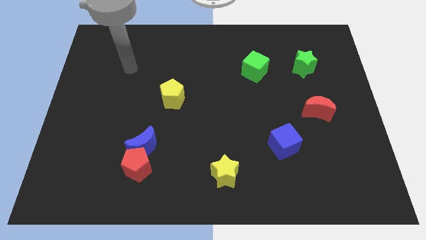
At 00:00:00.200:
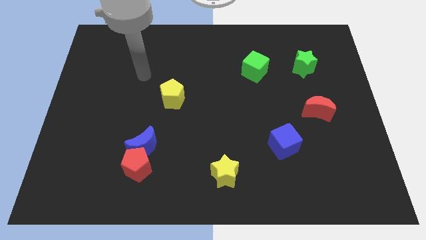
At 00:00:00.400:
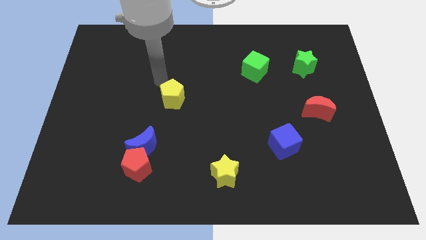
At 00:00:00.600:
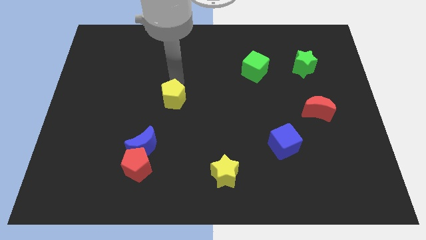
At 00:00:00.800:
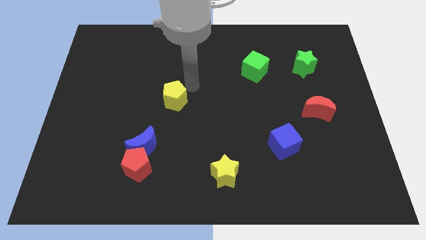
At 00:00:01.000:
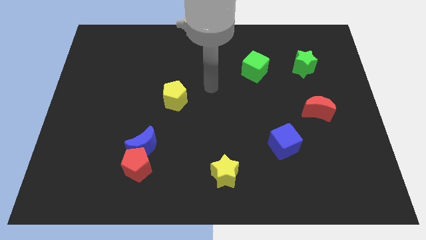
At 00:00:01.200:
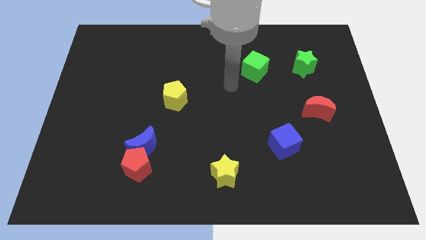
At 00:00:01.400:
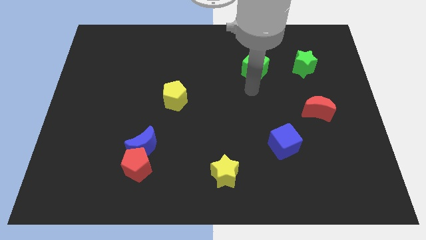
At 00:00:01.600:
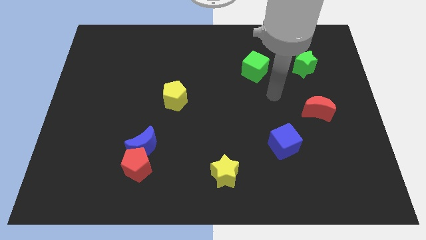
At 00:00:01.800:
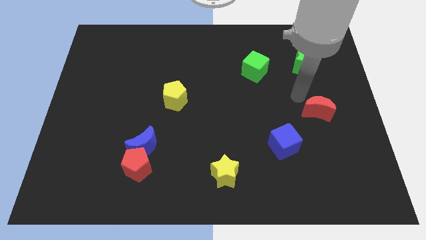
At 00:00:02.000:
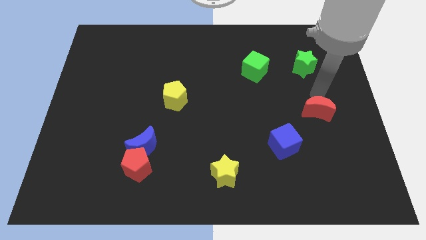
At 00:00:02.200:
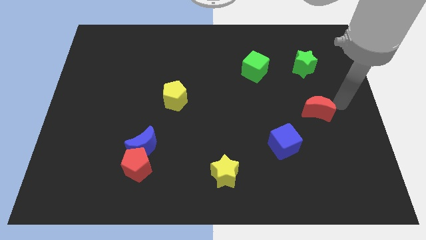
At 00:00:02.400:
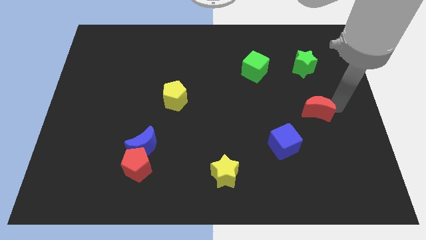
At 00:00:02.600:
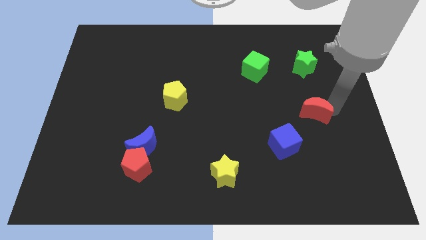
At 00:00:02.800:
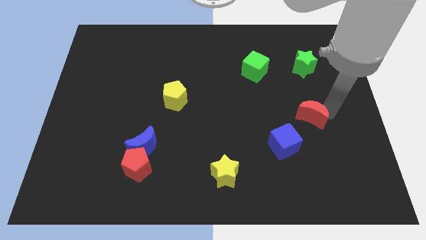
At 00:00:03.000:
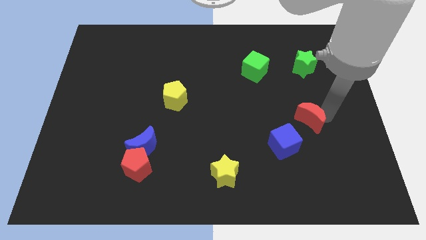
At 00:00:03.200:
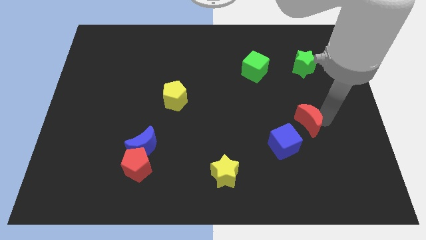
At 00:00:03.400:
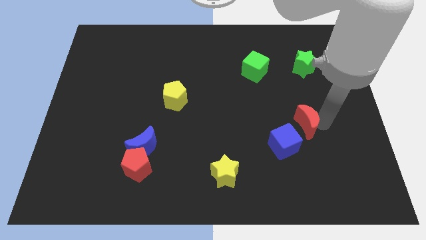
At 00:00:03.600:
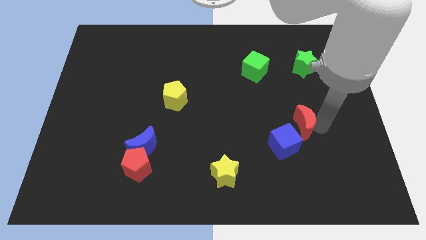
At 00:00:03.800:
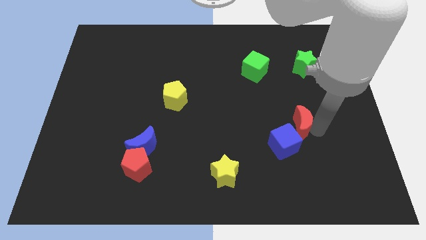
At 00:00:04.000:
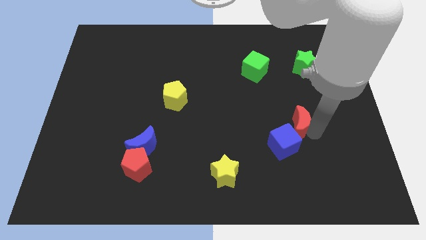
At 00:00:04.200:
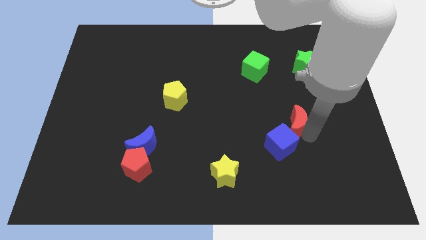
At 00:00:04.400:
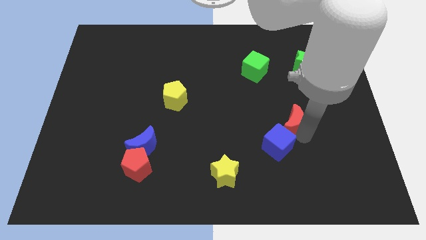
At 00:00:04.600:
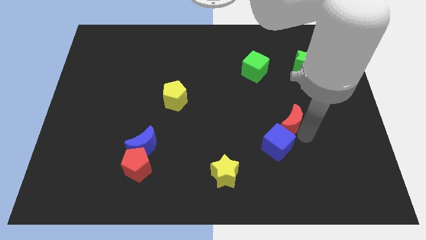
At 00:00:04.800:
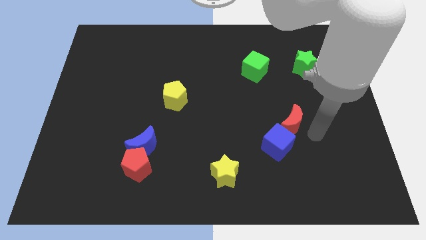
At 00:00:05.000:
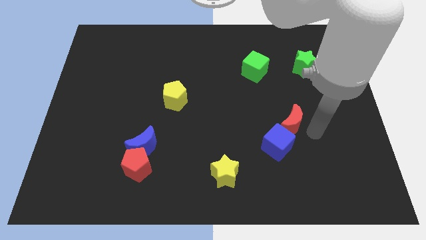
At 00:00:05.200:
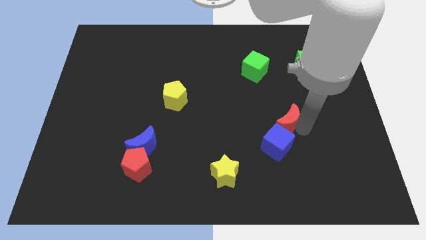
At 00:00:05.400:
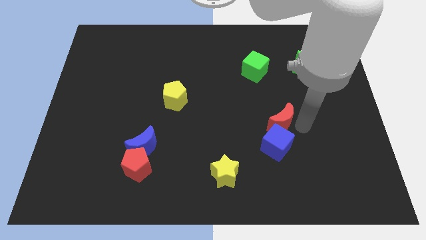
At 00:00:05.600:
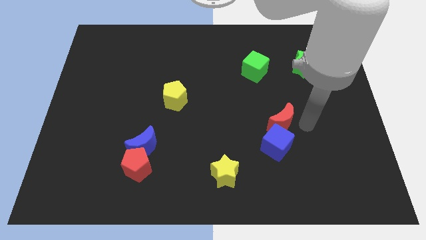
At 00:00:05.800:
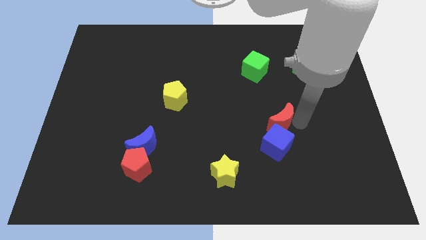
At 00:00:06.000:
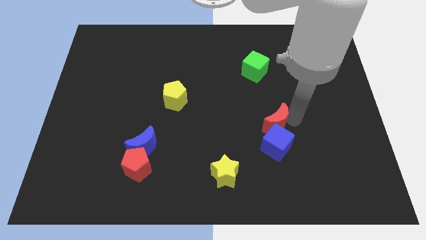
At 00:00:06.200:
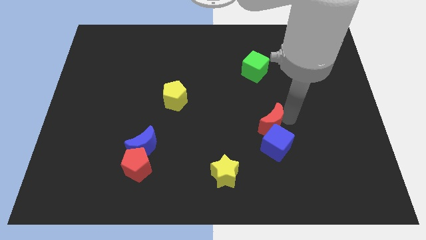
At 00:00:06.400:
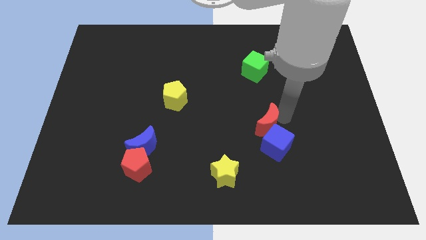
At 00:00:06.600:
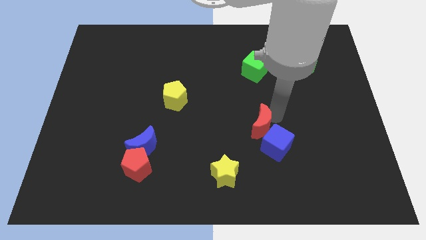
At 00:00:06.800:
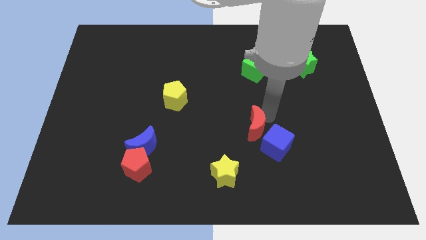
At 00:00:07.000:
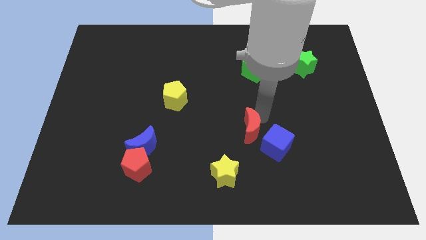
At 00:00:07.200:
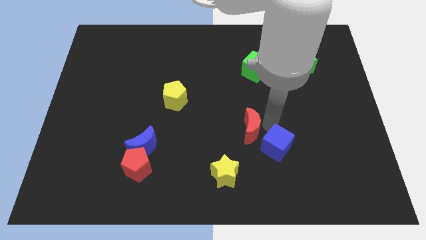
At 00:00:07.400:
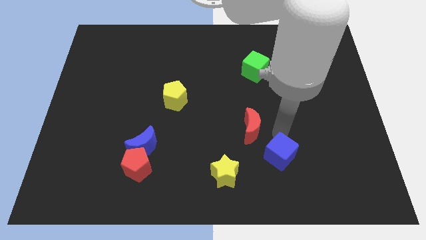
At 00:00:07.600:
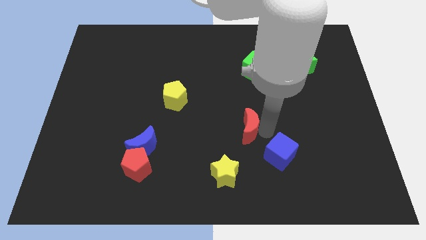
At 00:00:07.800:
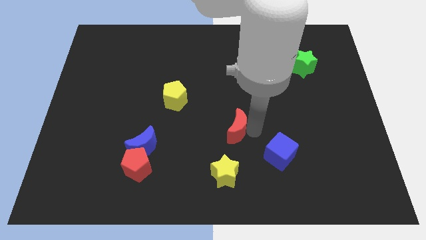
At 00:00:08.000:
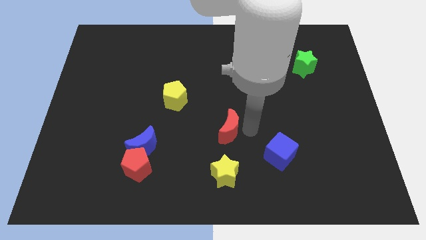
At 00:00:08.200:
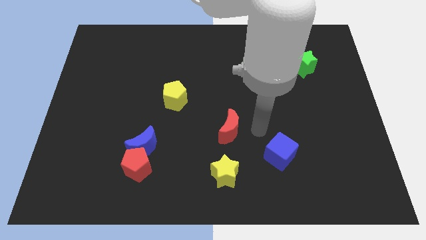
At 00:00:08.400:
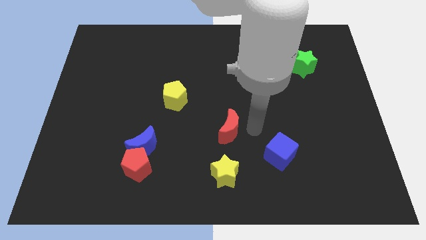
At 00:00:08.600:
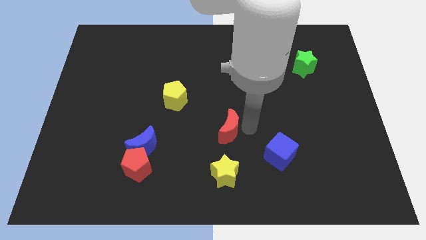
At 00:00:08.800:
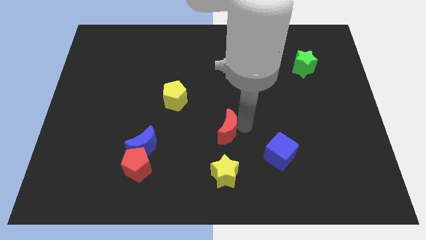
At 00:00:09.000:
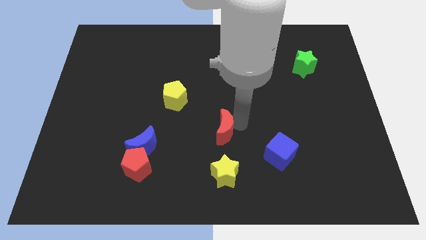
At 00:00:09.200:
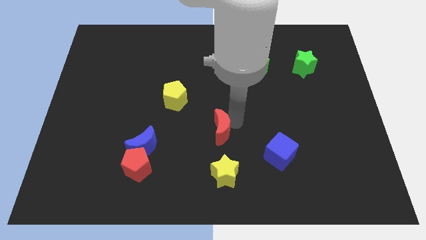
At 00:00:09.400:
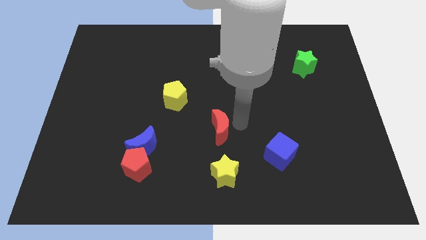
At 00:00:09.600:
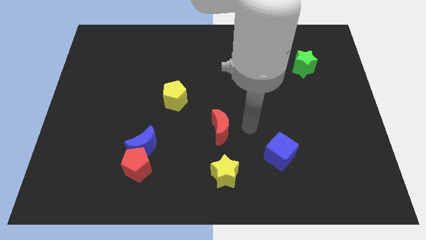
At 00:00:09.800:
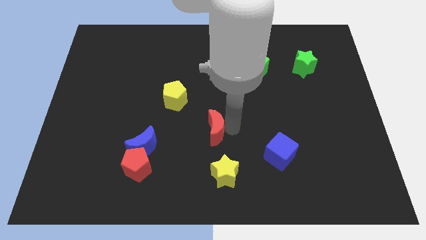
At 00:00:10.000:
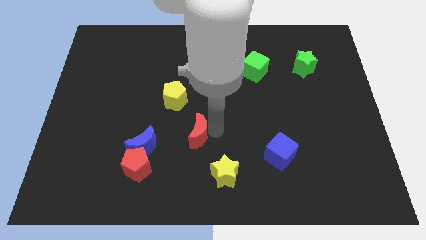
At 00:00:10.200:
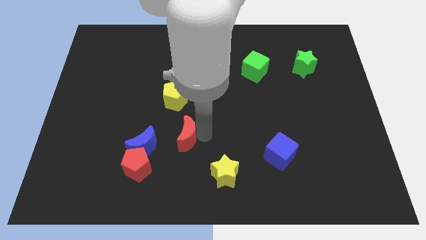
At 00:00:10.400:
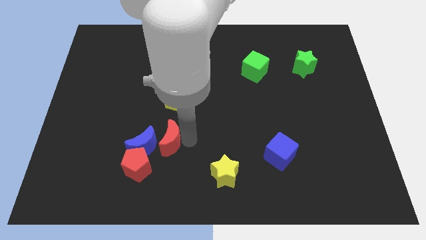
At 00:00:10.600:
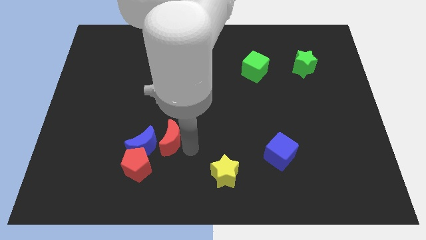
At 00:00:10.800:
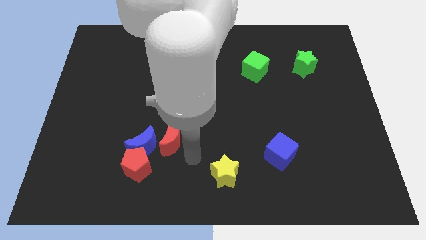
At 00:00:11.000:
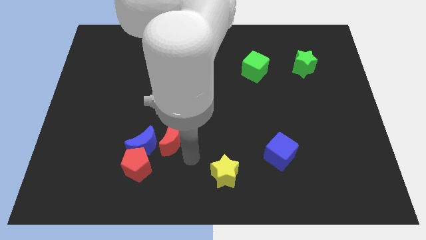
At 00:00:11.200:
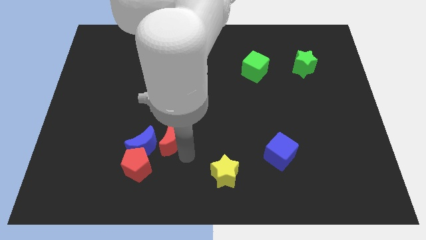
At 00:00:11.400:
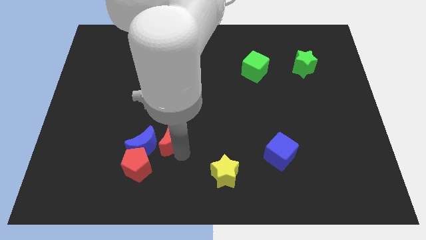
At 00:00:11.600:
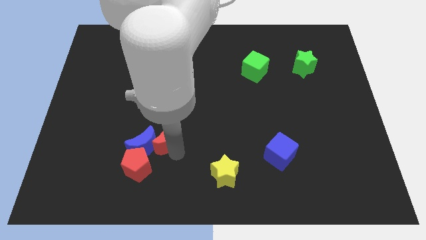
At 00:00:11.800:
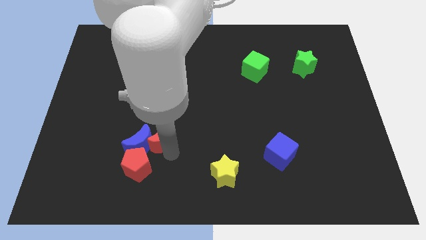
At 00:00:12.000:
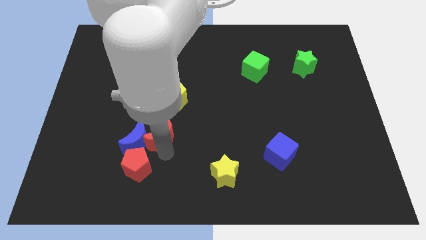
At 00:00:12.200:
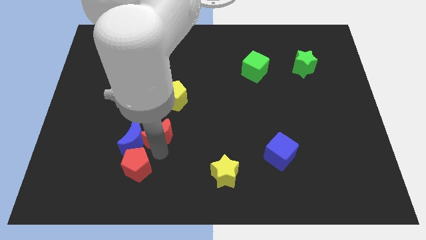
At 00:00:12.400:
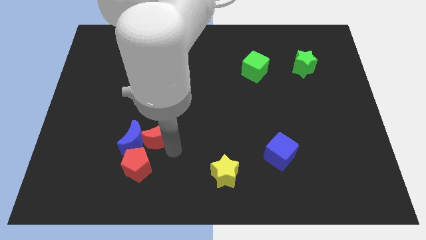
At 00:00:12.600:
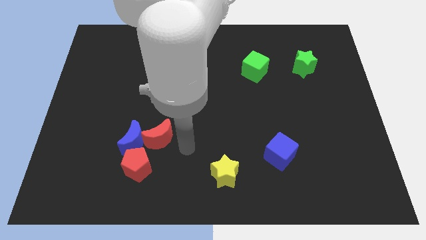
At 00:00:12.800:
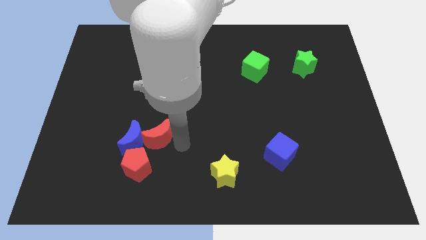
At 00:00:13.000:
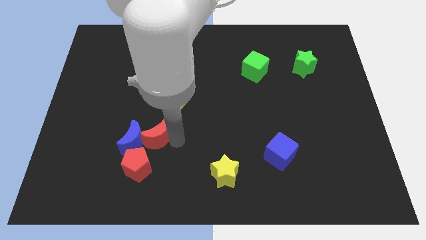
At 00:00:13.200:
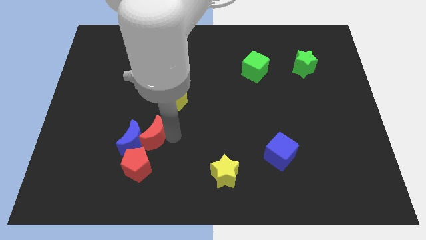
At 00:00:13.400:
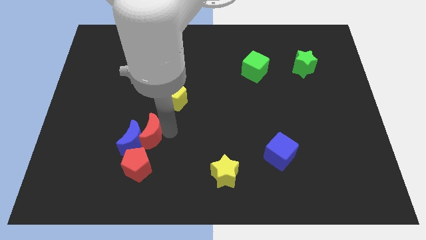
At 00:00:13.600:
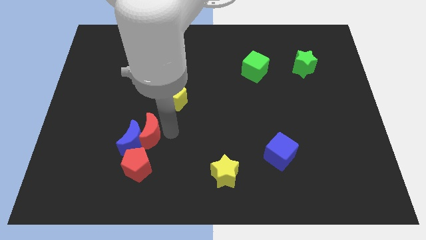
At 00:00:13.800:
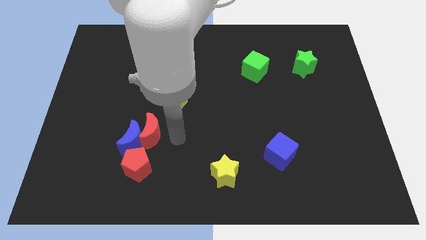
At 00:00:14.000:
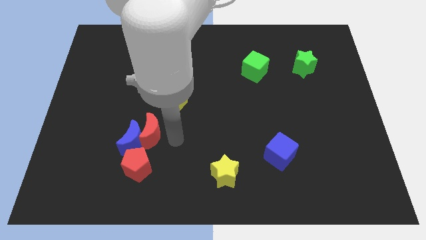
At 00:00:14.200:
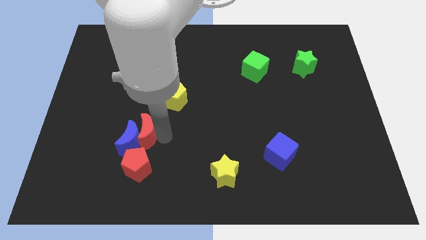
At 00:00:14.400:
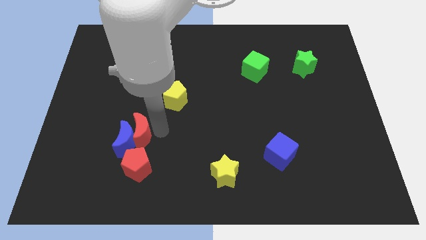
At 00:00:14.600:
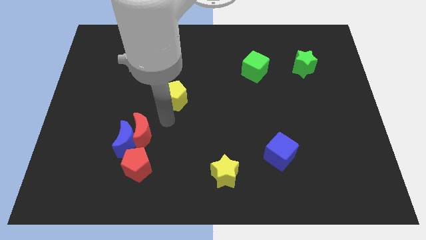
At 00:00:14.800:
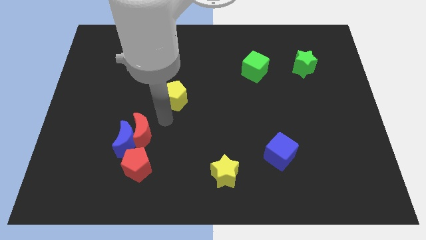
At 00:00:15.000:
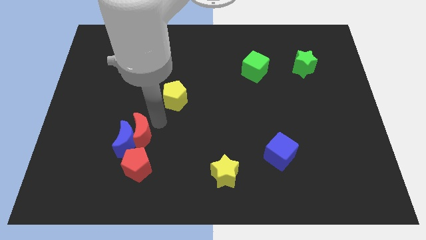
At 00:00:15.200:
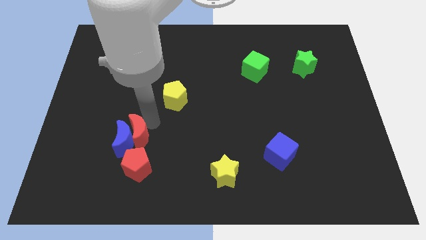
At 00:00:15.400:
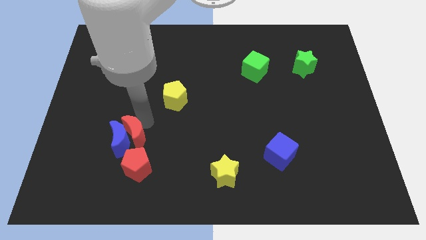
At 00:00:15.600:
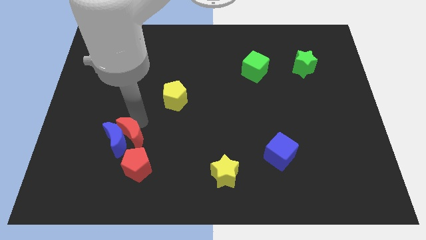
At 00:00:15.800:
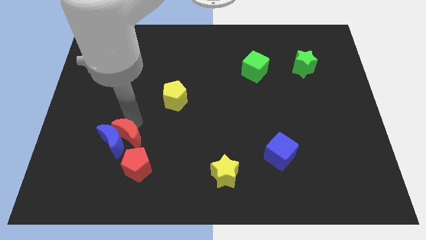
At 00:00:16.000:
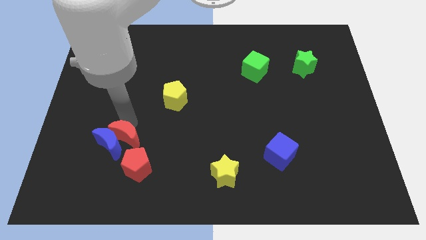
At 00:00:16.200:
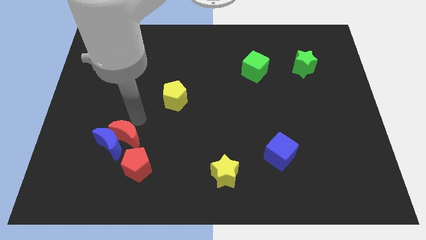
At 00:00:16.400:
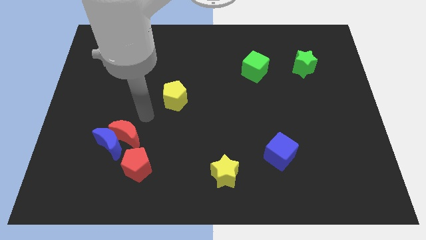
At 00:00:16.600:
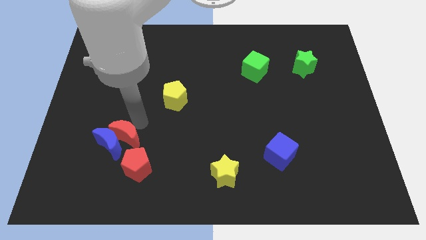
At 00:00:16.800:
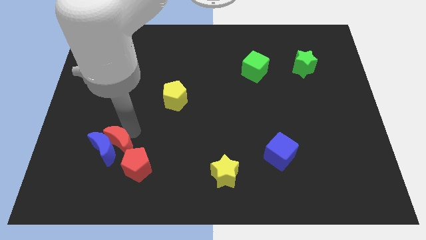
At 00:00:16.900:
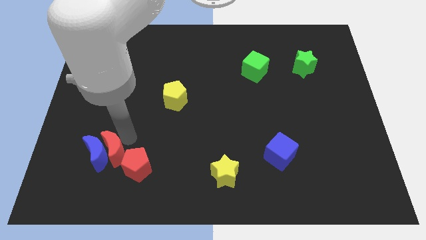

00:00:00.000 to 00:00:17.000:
move the red moon to the left side of the red pentagon
